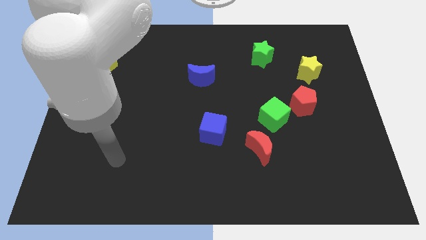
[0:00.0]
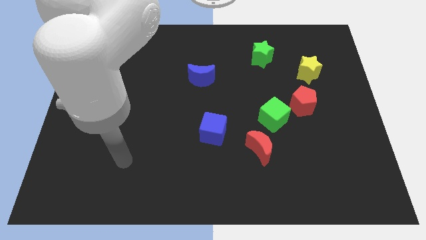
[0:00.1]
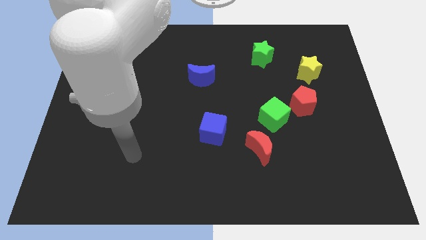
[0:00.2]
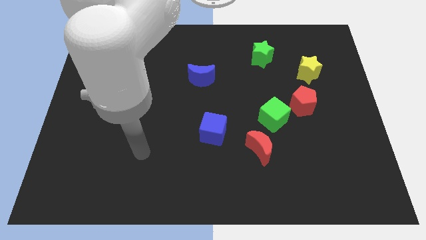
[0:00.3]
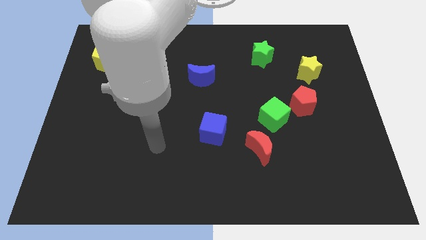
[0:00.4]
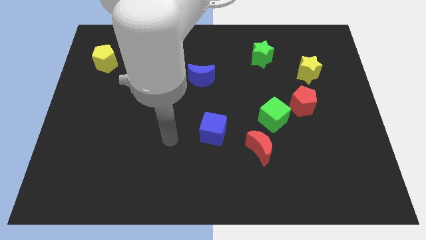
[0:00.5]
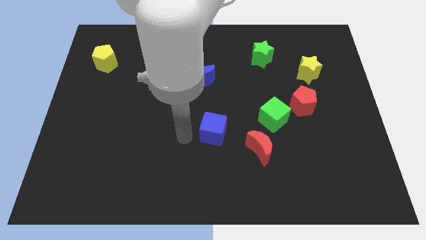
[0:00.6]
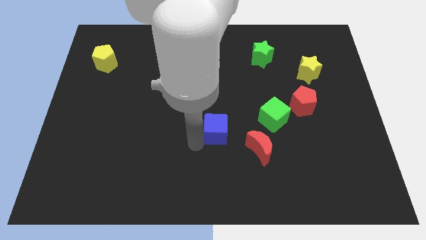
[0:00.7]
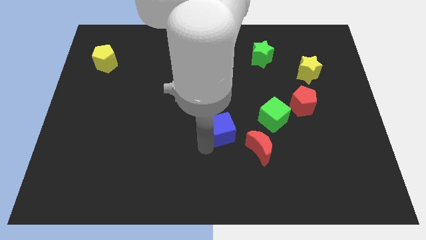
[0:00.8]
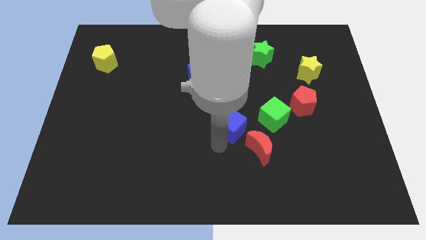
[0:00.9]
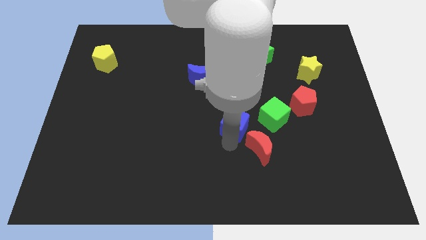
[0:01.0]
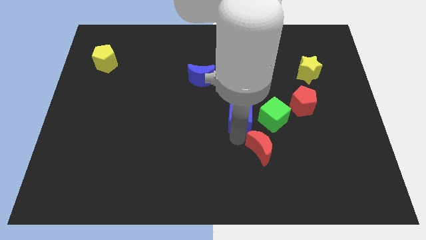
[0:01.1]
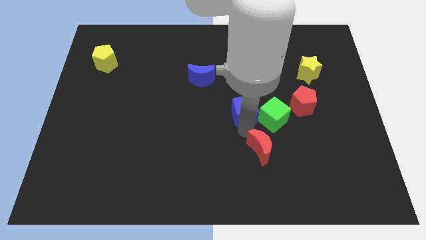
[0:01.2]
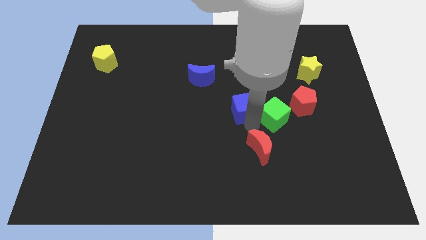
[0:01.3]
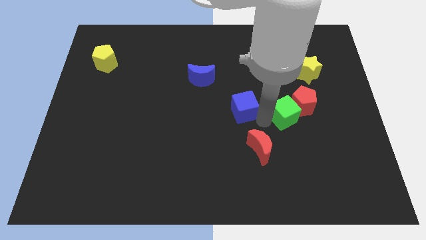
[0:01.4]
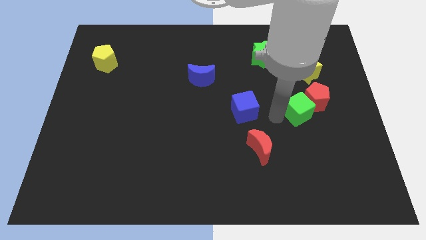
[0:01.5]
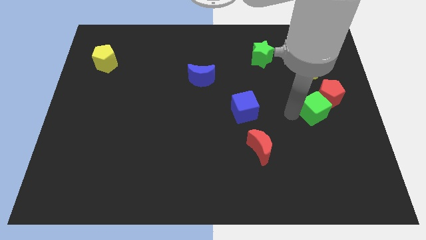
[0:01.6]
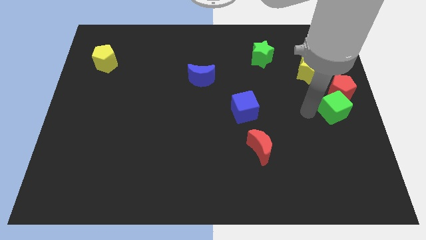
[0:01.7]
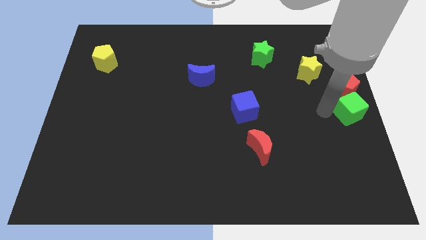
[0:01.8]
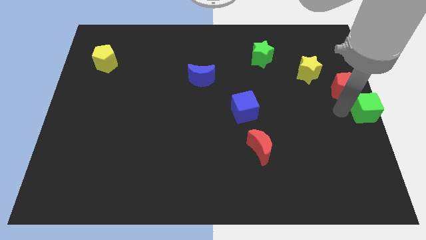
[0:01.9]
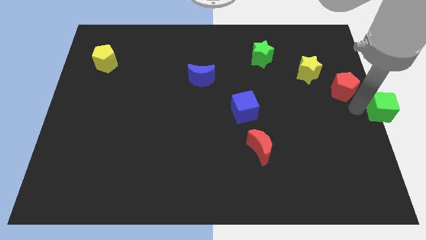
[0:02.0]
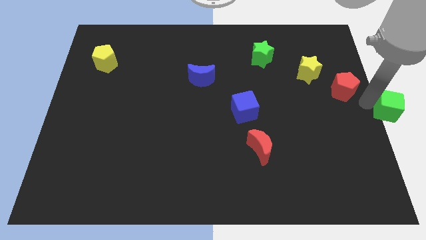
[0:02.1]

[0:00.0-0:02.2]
separate the red pentagon from the green cube

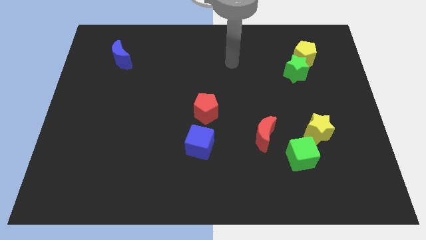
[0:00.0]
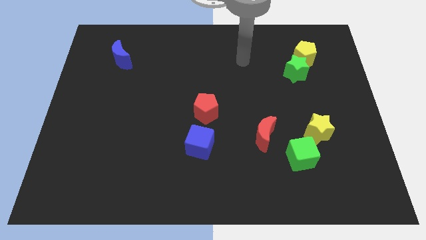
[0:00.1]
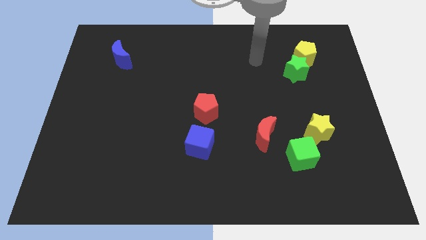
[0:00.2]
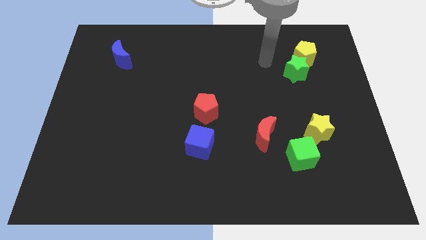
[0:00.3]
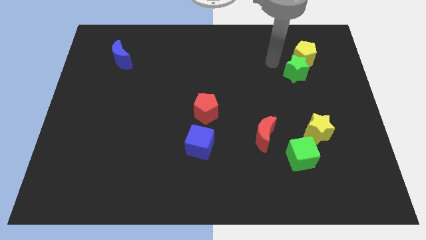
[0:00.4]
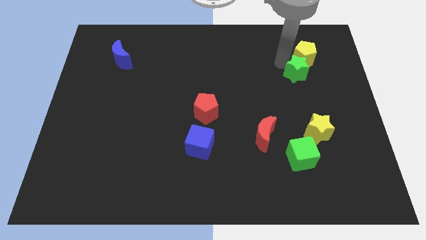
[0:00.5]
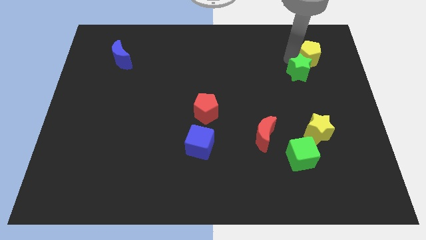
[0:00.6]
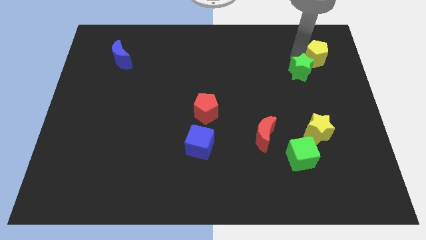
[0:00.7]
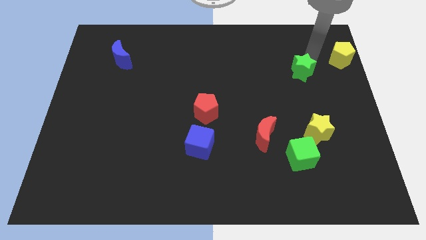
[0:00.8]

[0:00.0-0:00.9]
move the green star away from the yellow pentagon

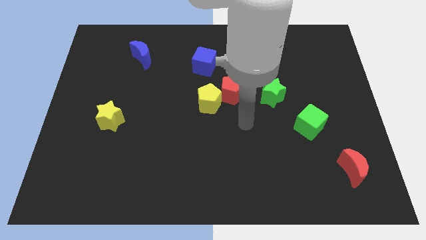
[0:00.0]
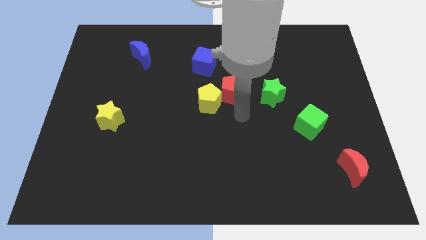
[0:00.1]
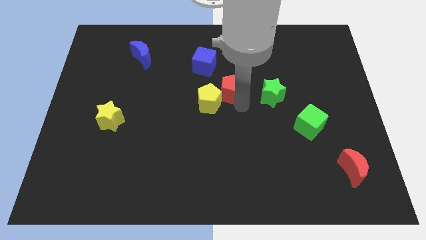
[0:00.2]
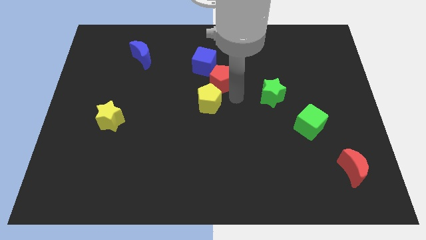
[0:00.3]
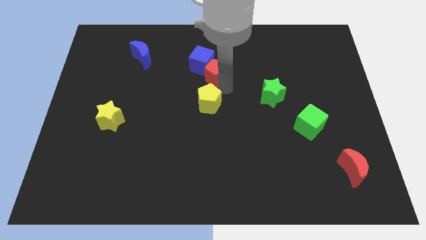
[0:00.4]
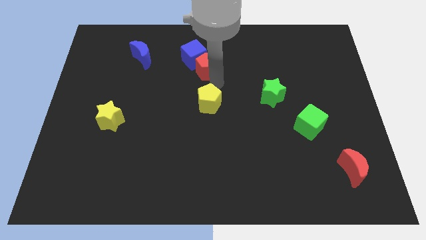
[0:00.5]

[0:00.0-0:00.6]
move the yellow pentagon away from the red pentagon

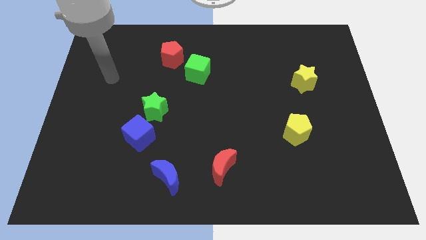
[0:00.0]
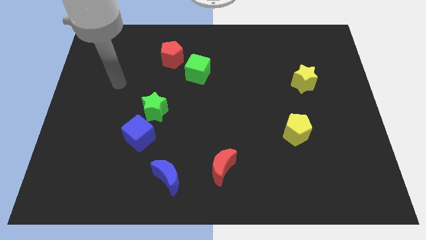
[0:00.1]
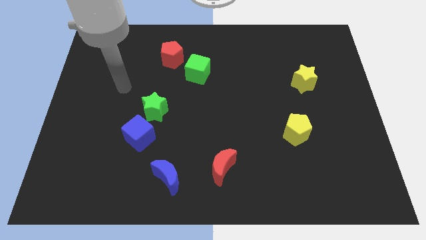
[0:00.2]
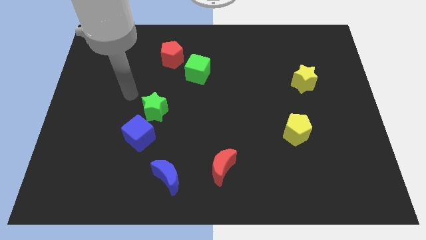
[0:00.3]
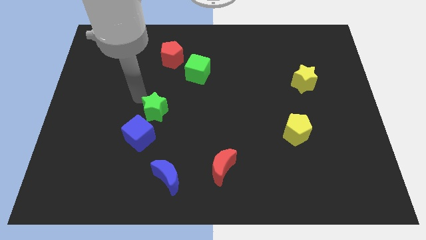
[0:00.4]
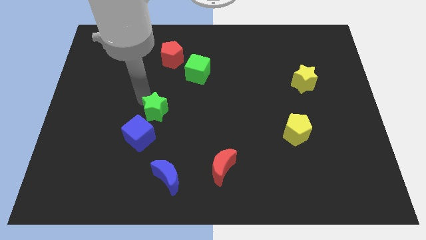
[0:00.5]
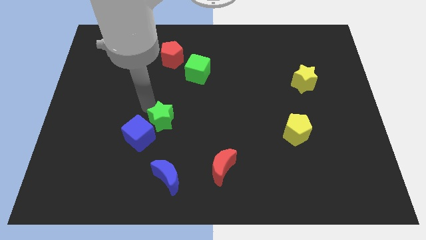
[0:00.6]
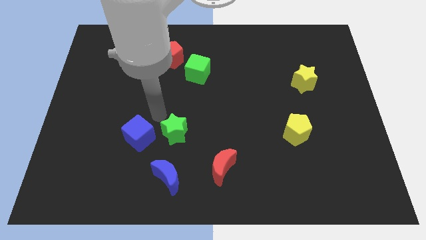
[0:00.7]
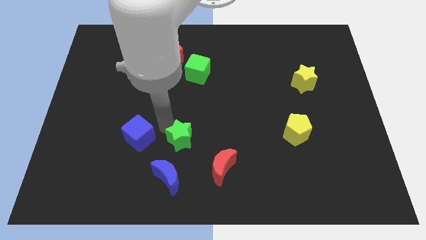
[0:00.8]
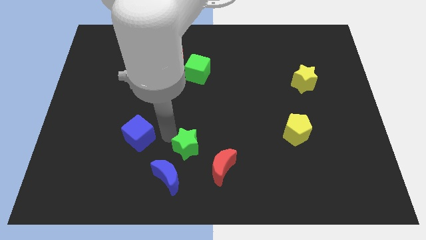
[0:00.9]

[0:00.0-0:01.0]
move the blue cube away from the green star

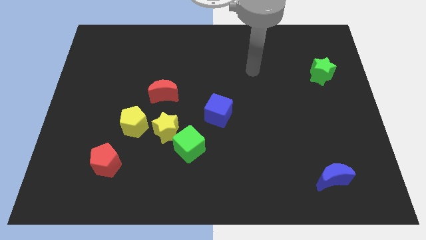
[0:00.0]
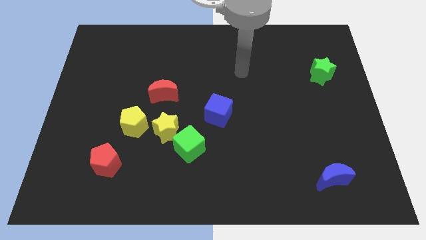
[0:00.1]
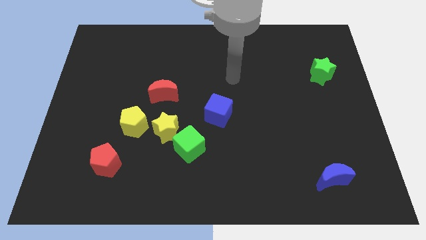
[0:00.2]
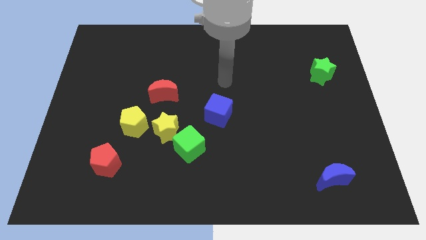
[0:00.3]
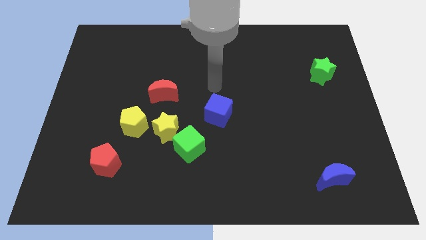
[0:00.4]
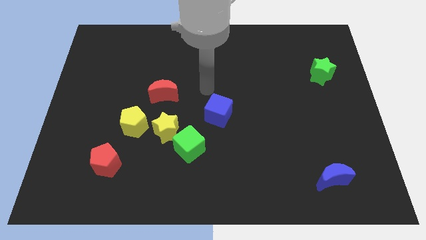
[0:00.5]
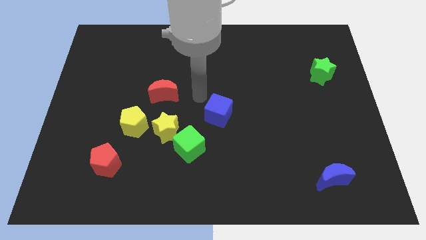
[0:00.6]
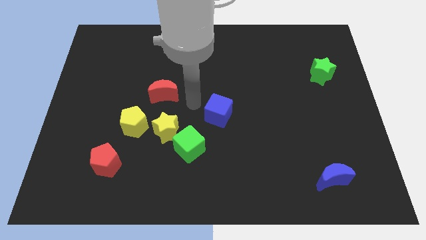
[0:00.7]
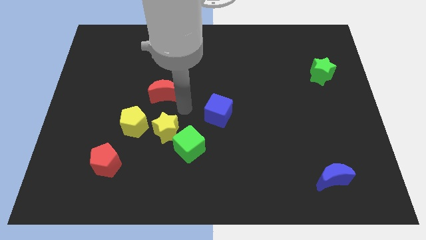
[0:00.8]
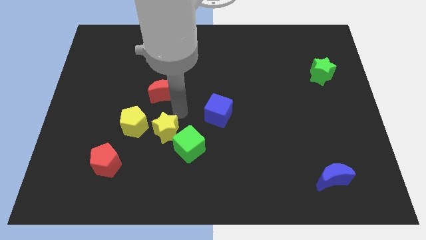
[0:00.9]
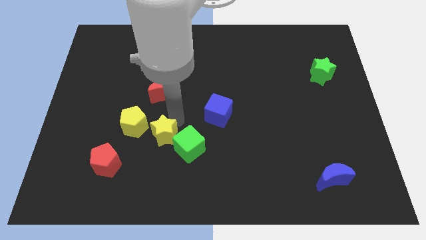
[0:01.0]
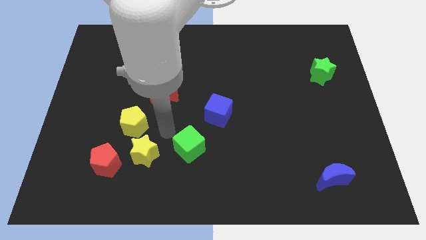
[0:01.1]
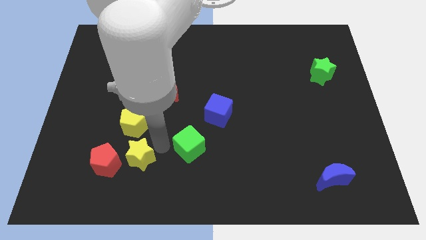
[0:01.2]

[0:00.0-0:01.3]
move the green cube away from the yellow star

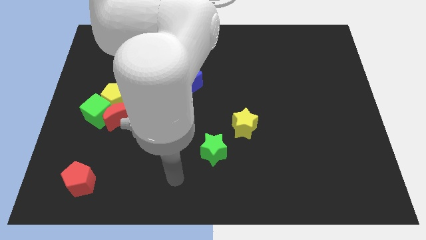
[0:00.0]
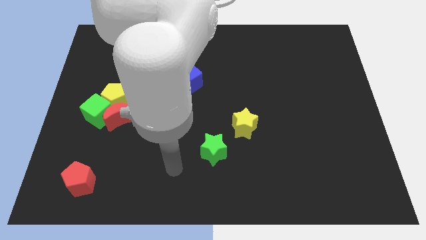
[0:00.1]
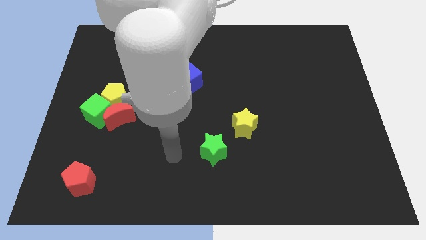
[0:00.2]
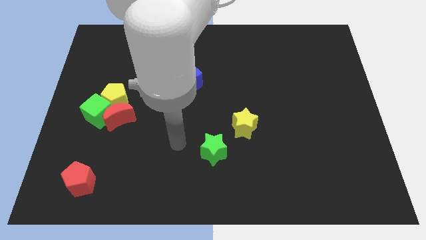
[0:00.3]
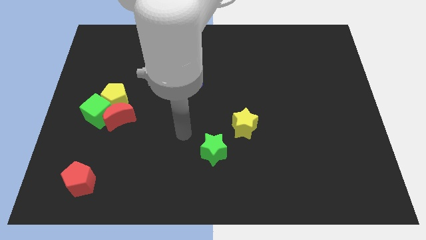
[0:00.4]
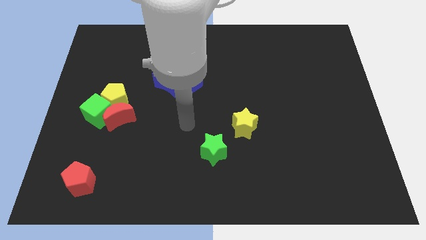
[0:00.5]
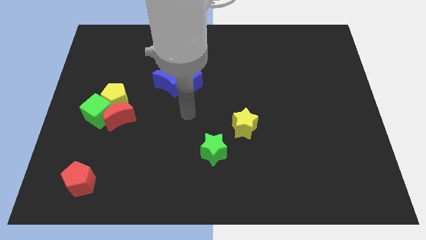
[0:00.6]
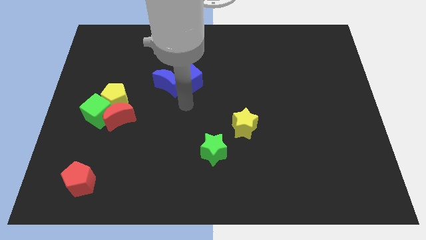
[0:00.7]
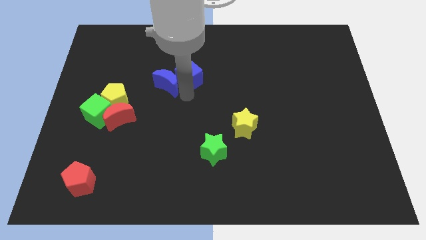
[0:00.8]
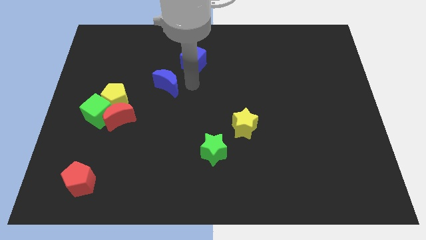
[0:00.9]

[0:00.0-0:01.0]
pull the blue moon apart from the blue cube

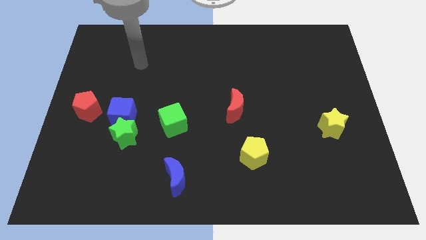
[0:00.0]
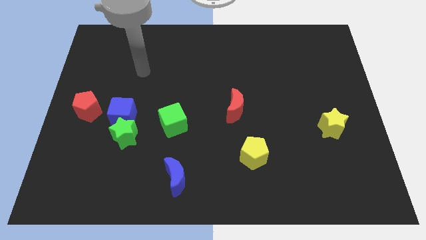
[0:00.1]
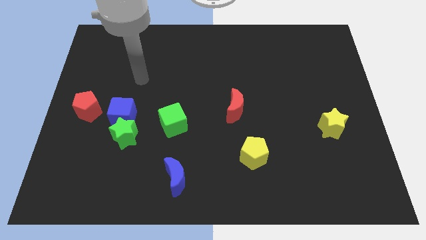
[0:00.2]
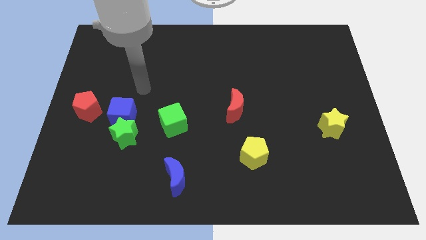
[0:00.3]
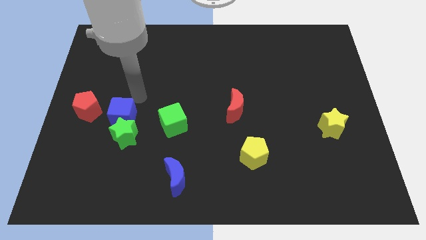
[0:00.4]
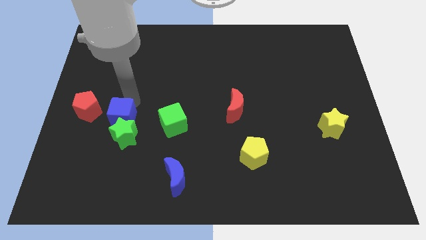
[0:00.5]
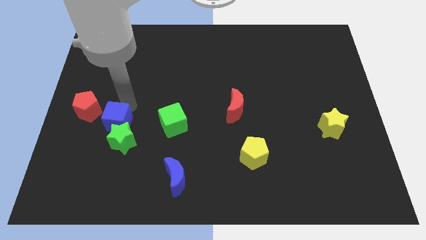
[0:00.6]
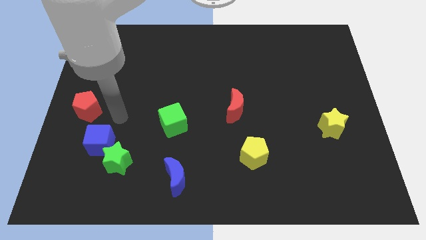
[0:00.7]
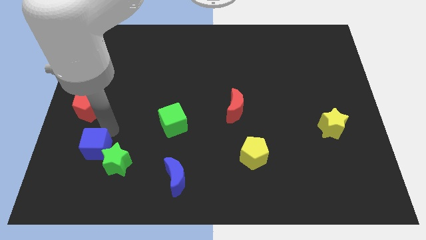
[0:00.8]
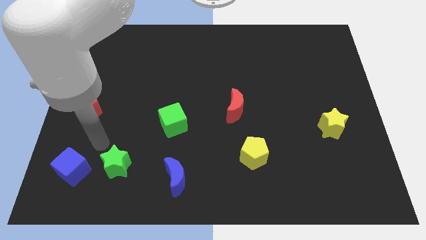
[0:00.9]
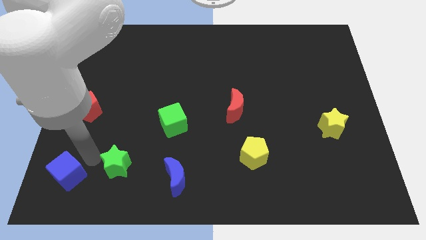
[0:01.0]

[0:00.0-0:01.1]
move the green star away from the blue cube

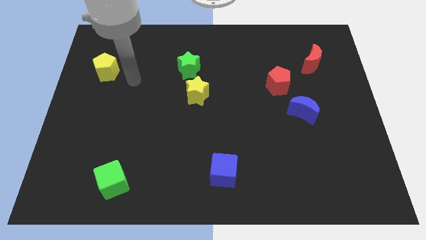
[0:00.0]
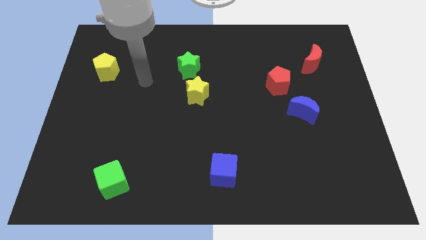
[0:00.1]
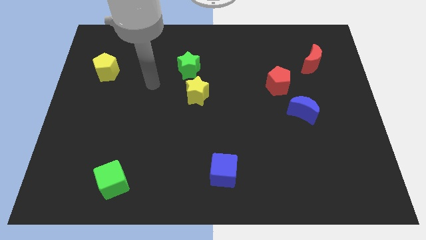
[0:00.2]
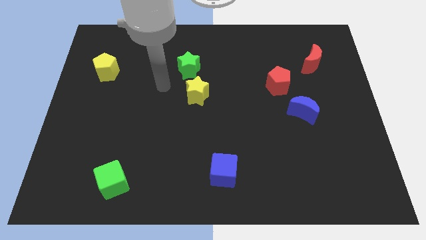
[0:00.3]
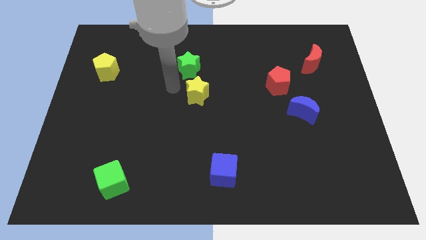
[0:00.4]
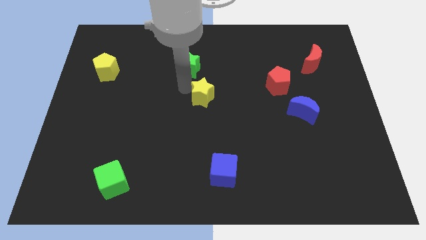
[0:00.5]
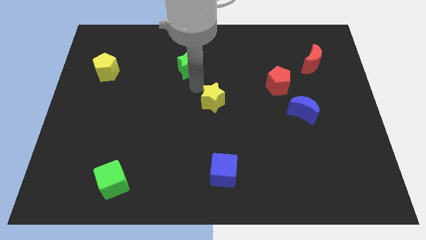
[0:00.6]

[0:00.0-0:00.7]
move the green star away from the yellow star

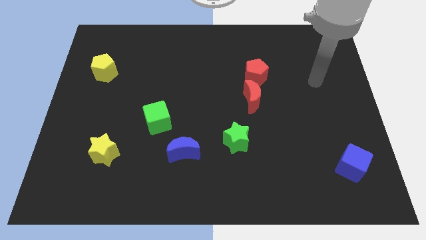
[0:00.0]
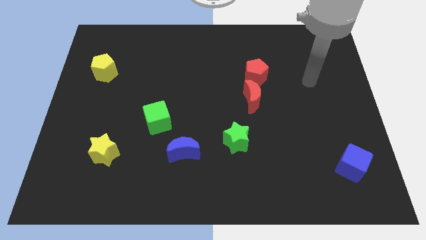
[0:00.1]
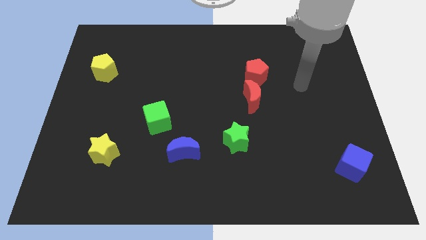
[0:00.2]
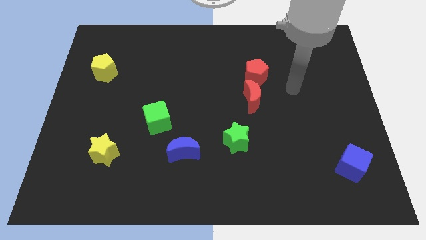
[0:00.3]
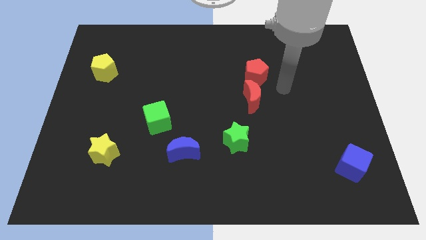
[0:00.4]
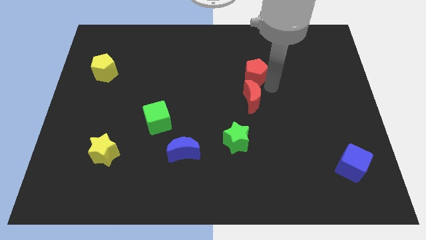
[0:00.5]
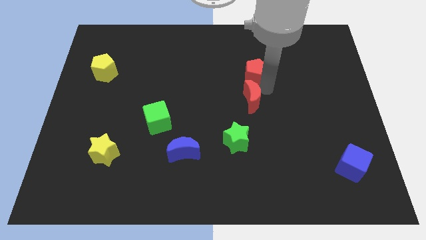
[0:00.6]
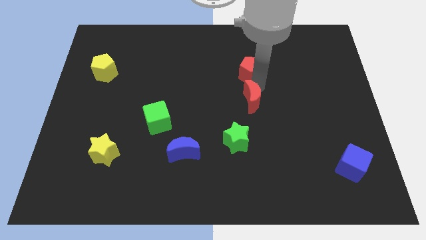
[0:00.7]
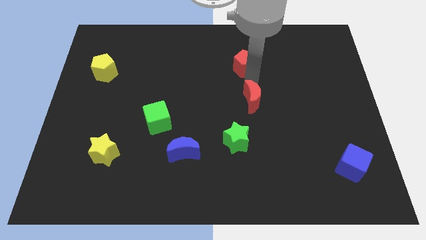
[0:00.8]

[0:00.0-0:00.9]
move the red moon away from the red pentagon
